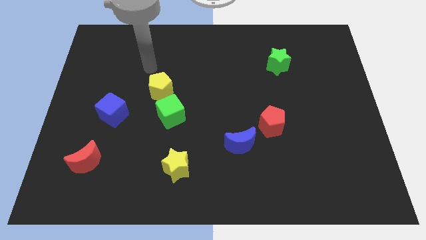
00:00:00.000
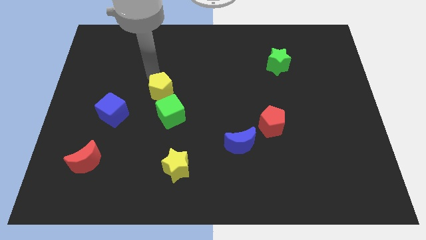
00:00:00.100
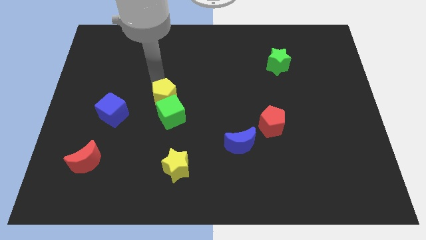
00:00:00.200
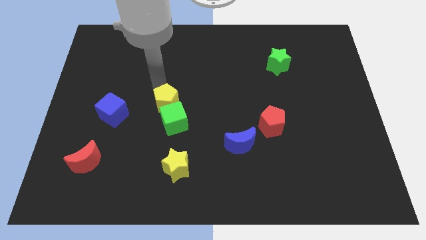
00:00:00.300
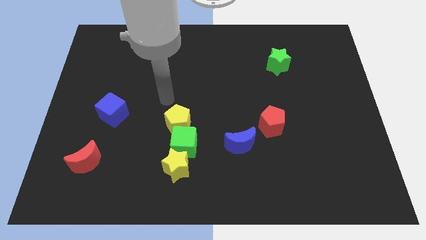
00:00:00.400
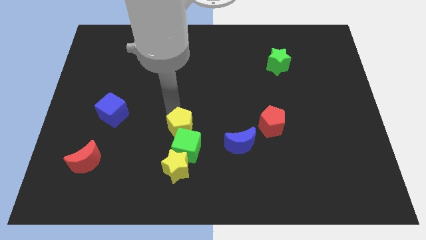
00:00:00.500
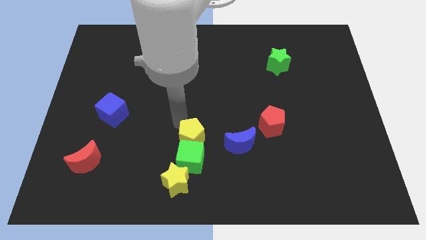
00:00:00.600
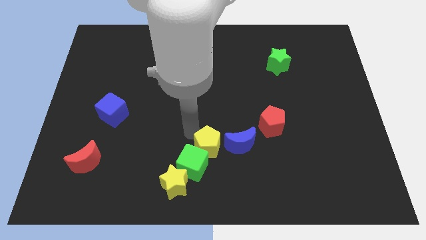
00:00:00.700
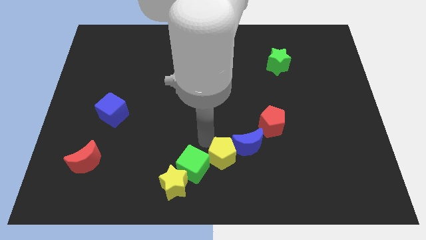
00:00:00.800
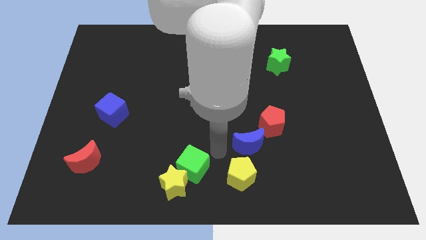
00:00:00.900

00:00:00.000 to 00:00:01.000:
separate the green cube from the yellow pentagon

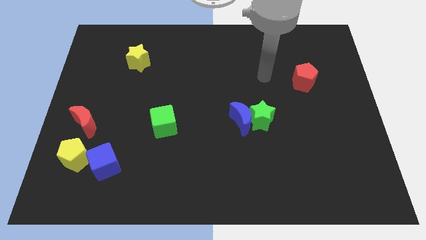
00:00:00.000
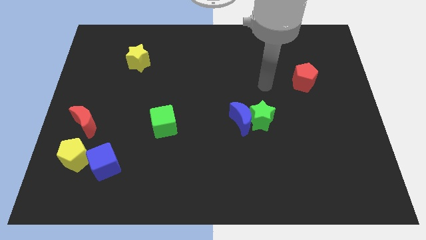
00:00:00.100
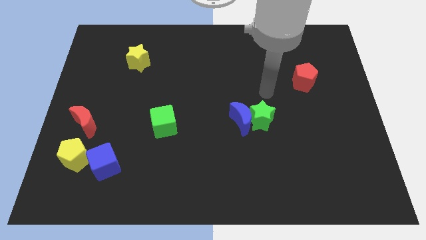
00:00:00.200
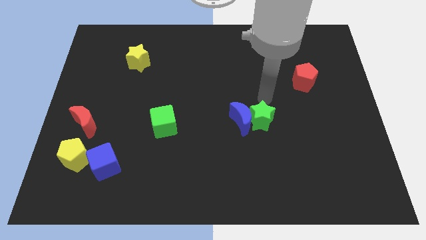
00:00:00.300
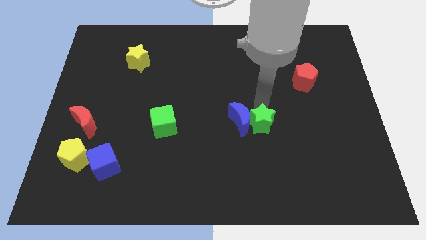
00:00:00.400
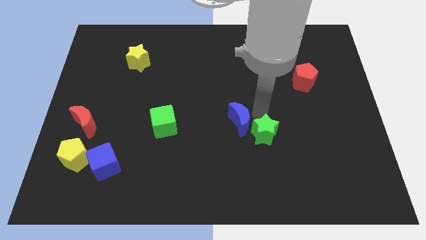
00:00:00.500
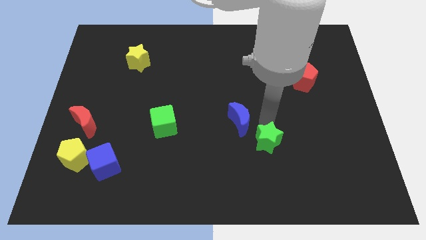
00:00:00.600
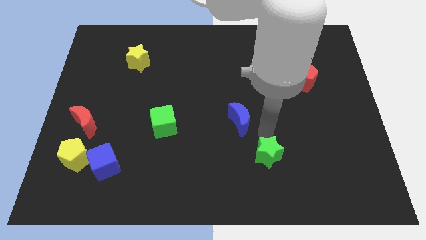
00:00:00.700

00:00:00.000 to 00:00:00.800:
pull the blue moon apart from the green star

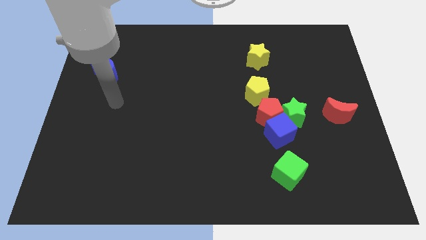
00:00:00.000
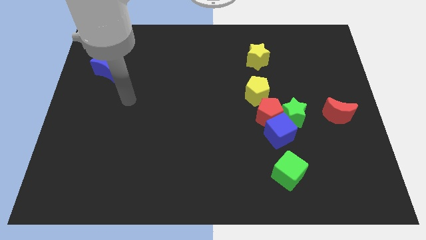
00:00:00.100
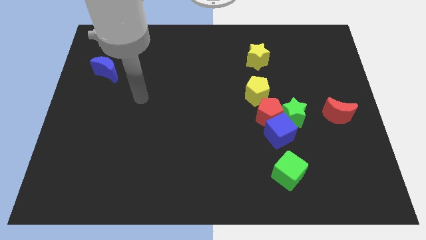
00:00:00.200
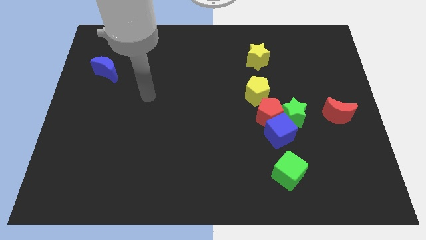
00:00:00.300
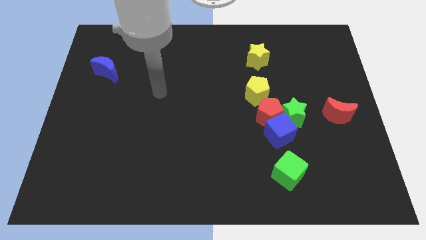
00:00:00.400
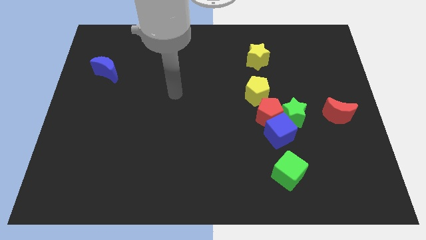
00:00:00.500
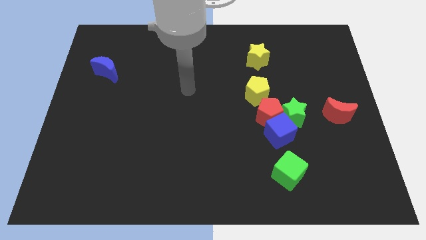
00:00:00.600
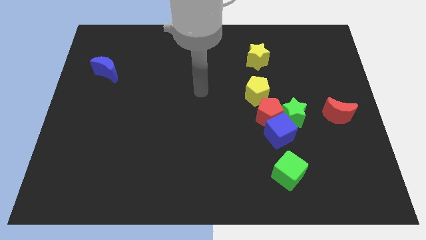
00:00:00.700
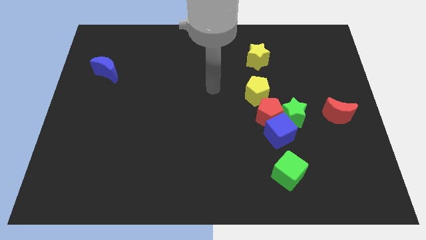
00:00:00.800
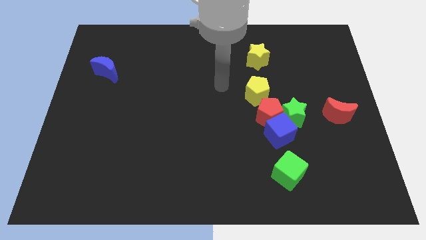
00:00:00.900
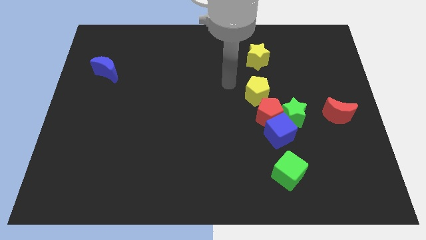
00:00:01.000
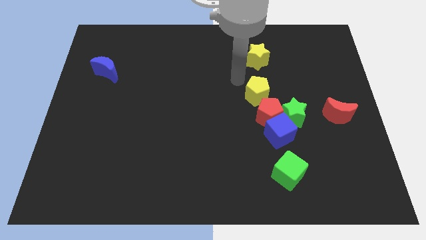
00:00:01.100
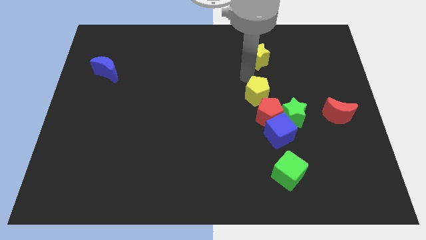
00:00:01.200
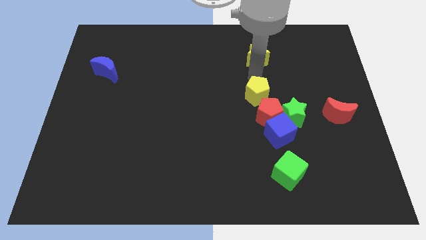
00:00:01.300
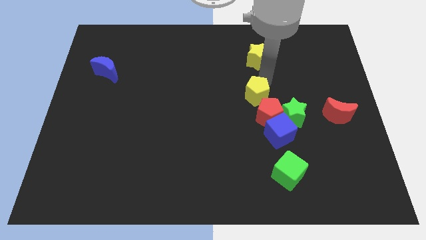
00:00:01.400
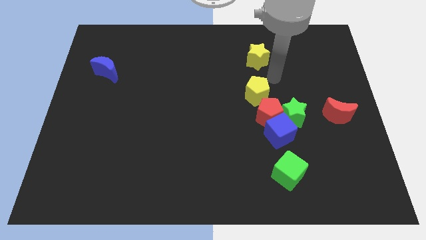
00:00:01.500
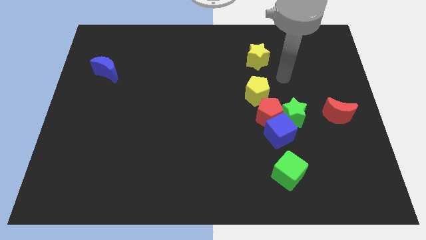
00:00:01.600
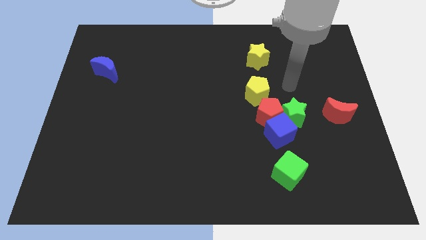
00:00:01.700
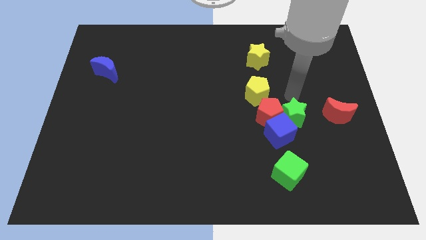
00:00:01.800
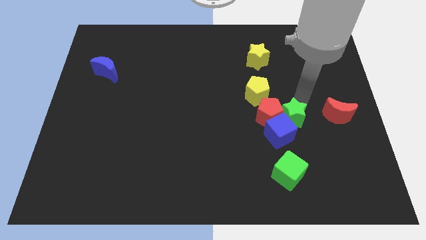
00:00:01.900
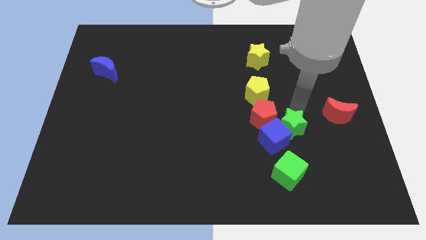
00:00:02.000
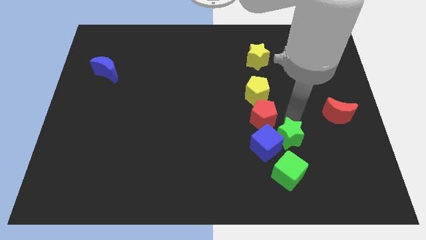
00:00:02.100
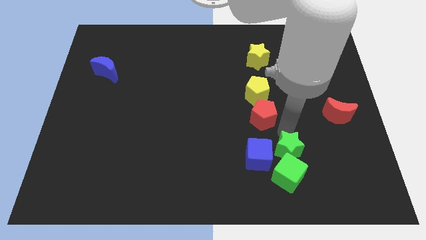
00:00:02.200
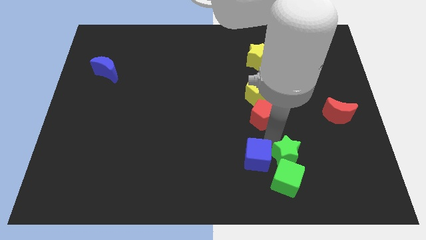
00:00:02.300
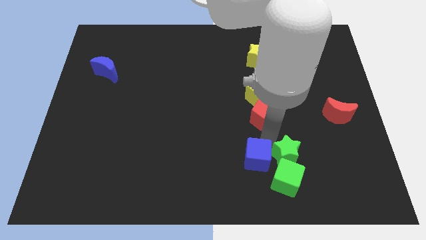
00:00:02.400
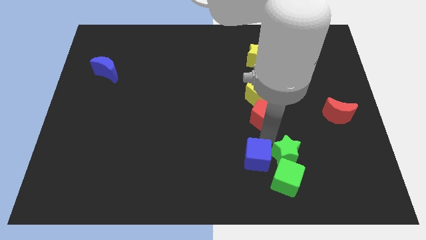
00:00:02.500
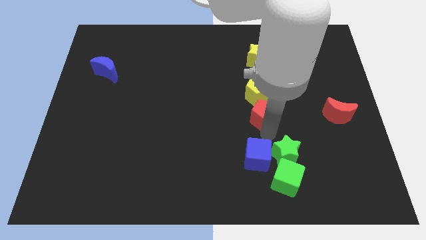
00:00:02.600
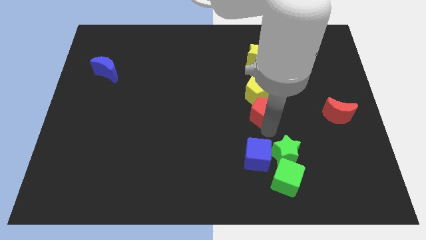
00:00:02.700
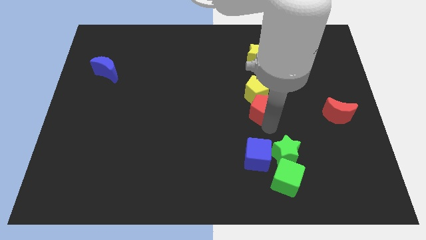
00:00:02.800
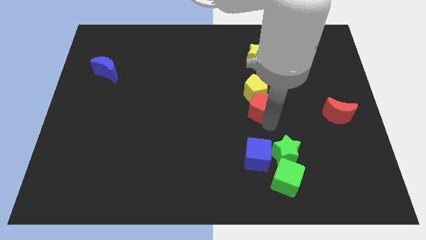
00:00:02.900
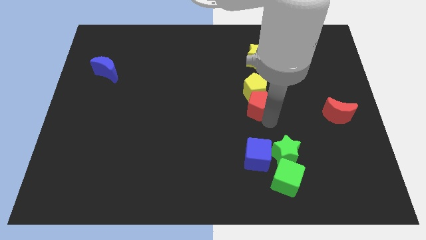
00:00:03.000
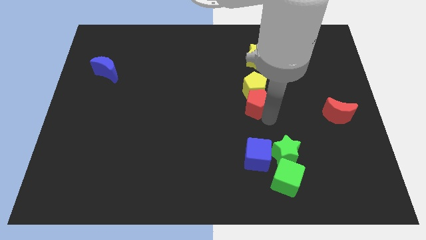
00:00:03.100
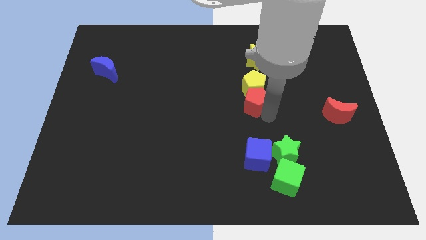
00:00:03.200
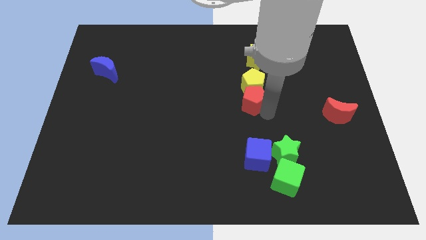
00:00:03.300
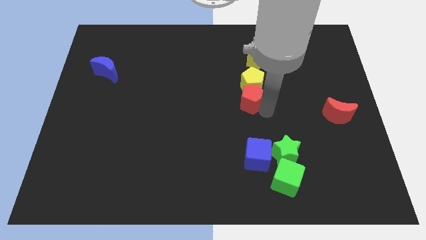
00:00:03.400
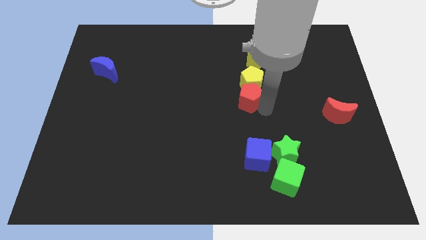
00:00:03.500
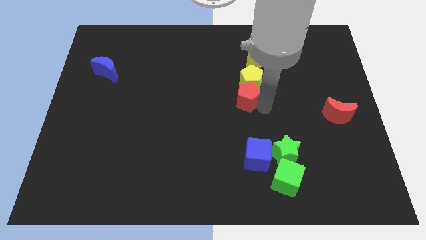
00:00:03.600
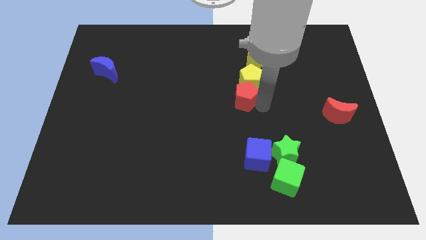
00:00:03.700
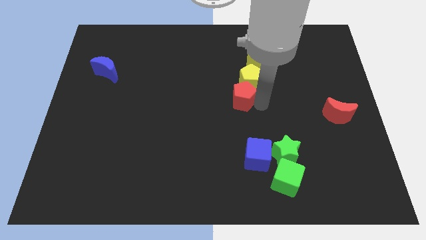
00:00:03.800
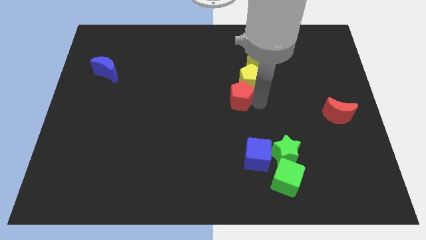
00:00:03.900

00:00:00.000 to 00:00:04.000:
separate the red pentagon from the blue cube, green star, and yellow pentagon

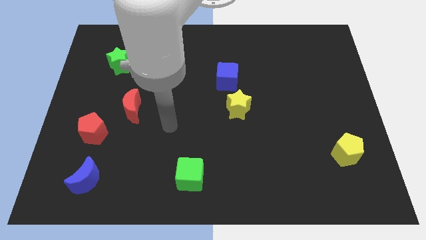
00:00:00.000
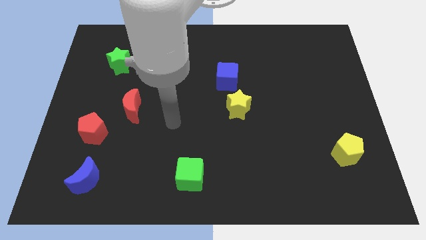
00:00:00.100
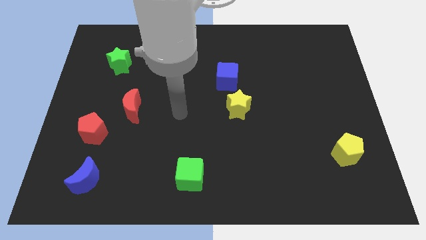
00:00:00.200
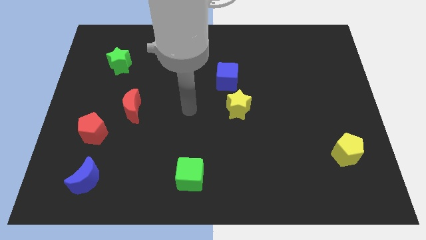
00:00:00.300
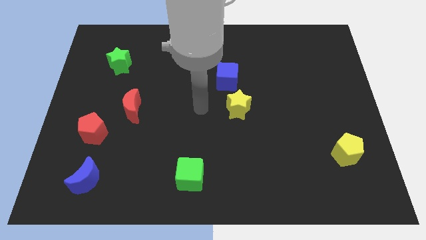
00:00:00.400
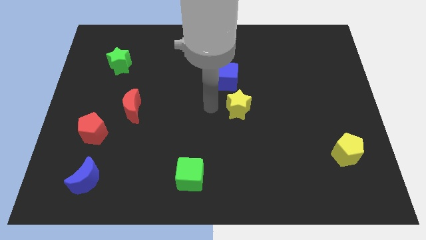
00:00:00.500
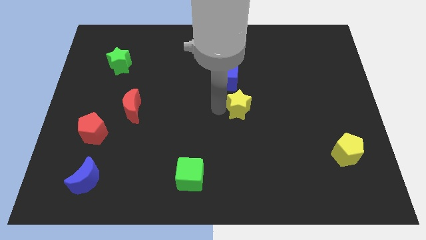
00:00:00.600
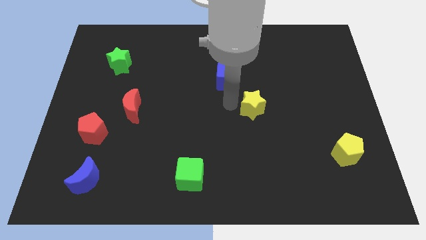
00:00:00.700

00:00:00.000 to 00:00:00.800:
separate the blue cube from the yellow star

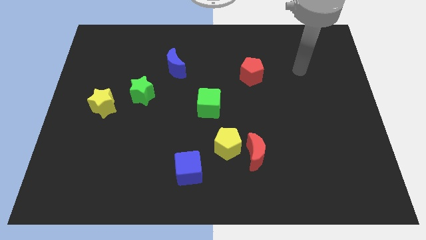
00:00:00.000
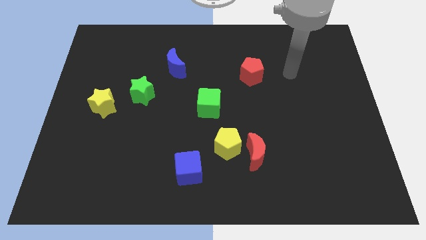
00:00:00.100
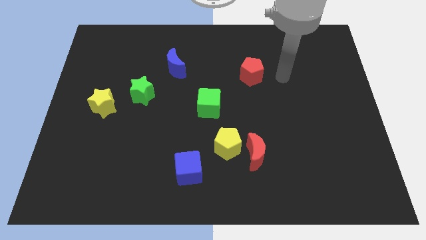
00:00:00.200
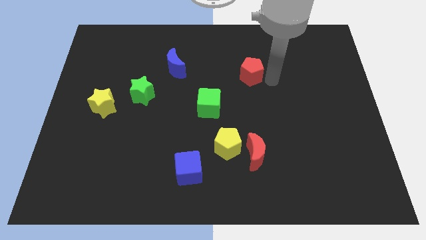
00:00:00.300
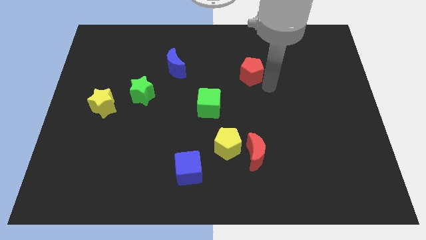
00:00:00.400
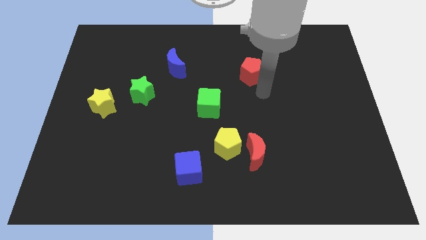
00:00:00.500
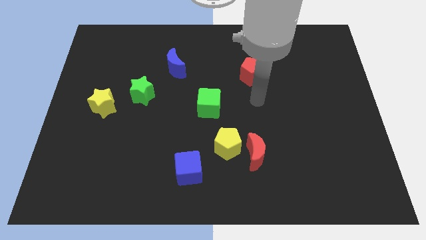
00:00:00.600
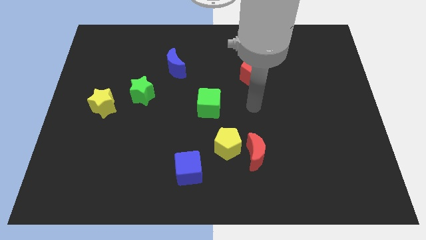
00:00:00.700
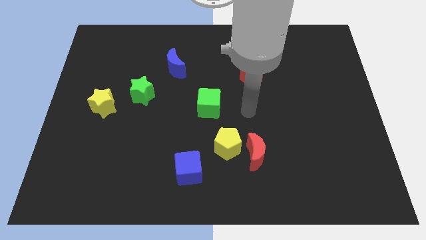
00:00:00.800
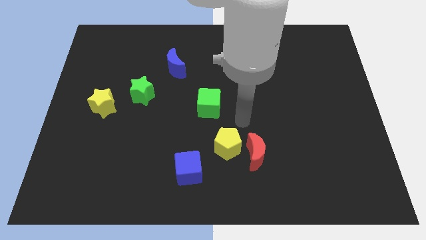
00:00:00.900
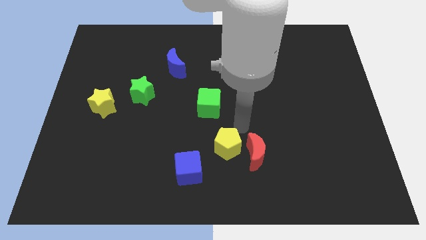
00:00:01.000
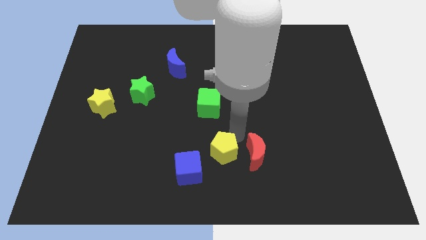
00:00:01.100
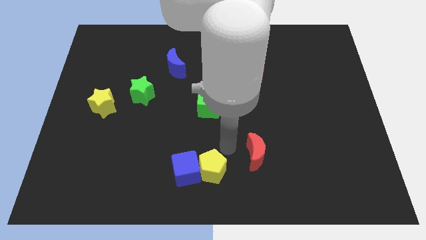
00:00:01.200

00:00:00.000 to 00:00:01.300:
pull the red moon apart from the yellow pentagon

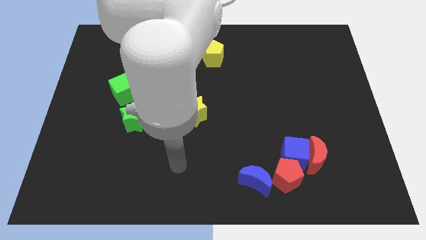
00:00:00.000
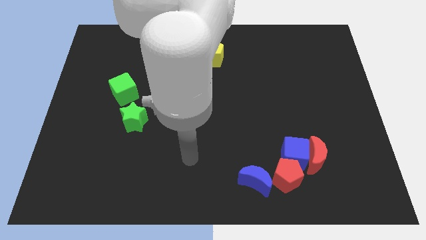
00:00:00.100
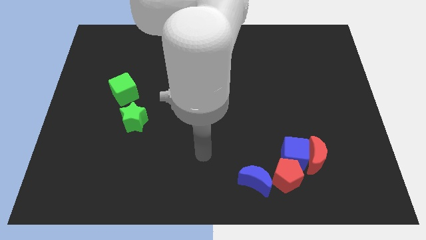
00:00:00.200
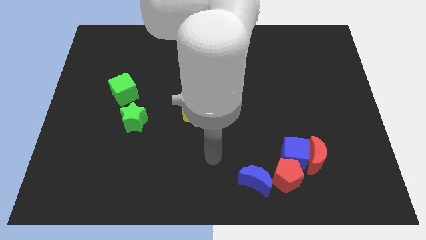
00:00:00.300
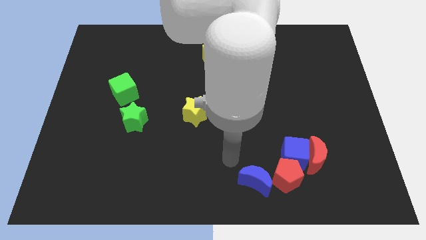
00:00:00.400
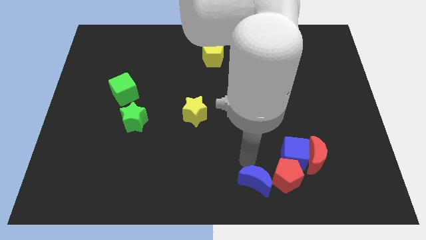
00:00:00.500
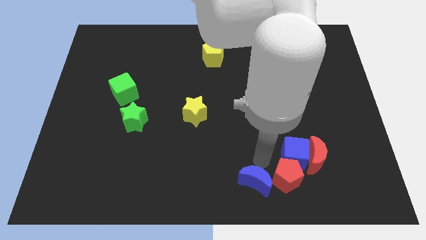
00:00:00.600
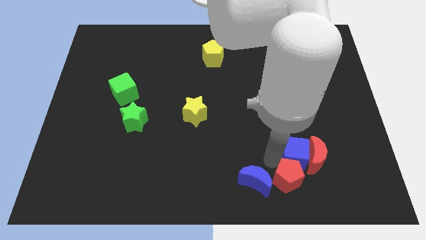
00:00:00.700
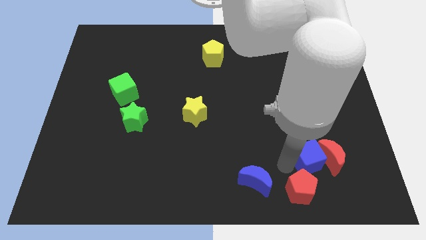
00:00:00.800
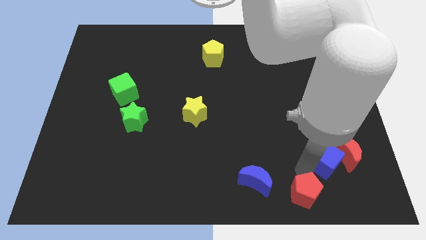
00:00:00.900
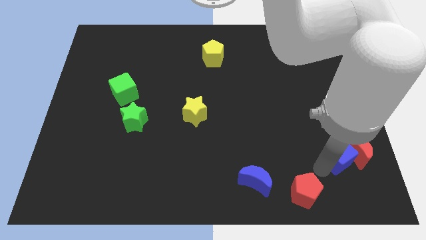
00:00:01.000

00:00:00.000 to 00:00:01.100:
separate the red moon from the blue cube and red pentagon

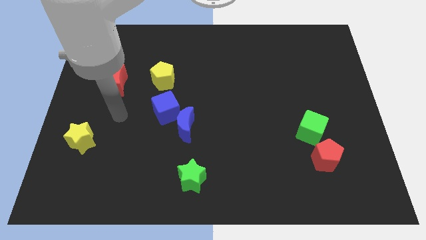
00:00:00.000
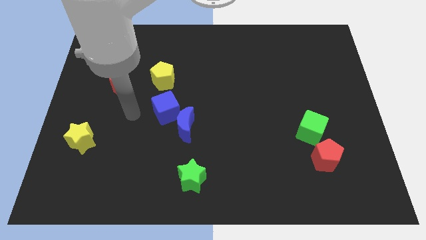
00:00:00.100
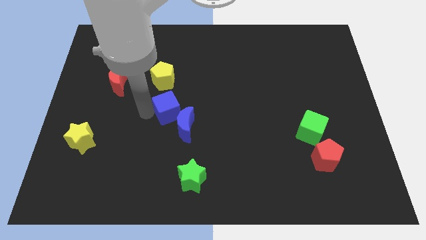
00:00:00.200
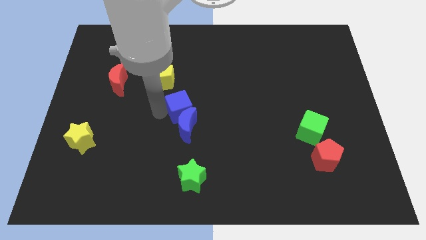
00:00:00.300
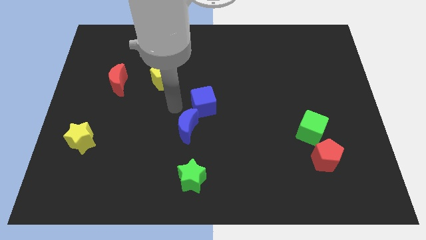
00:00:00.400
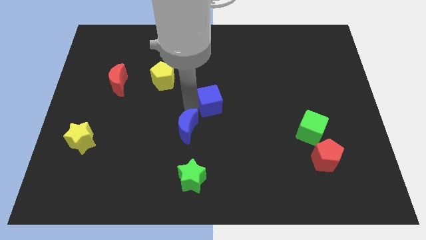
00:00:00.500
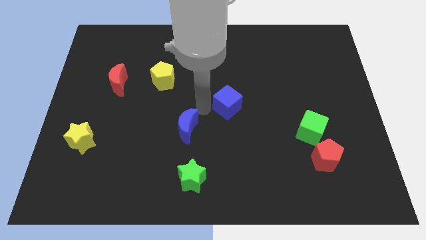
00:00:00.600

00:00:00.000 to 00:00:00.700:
separate the blue moon from the blue cube
